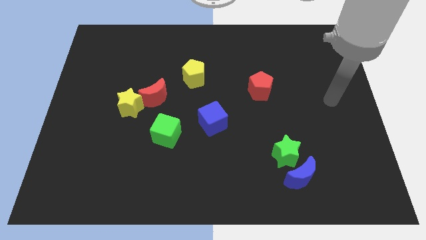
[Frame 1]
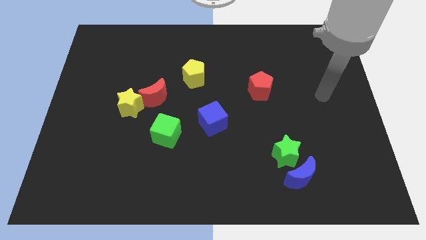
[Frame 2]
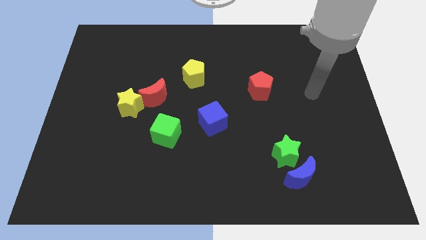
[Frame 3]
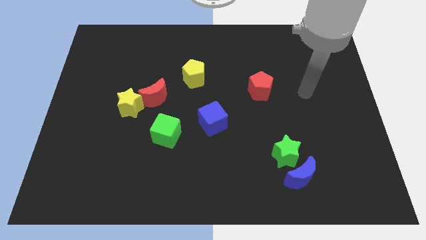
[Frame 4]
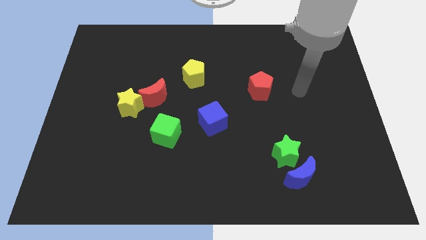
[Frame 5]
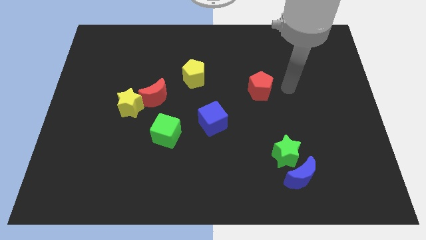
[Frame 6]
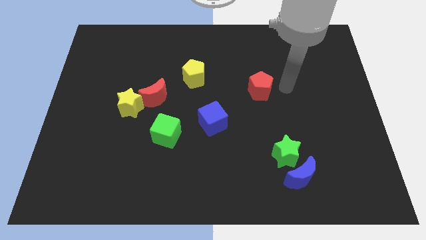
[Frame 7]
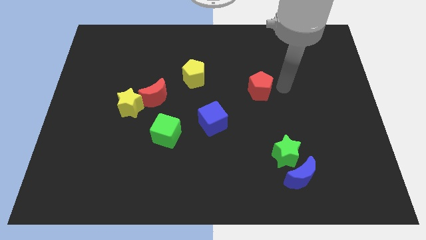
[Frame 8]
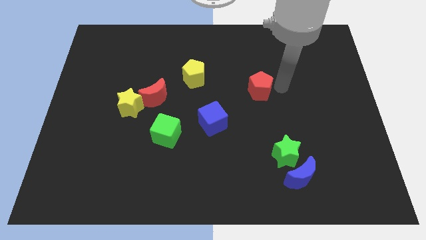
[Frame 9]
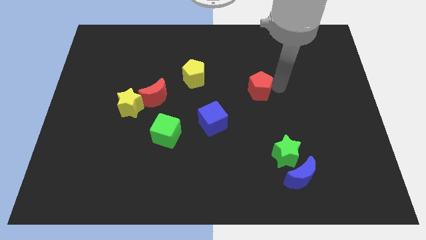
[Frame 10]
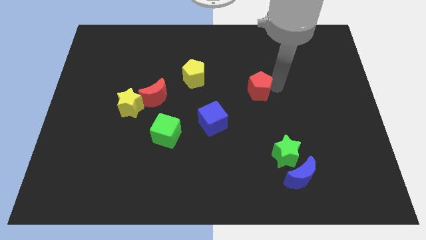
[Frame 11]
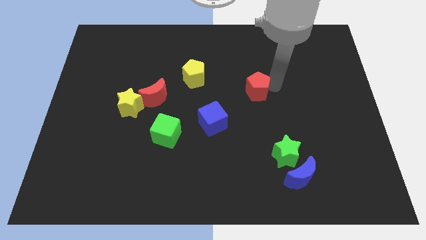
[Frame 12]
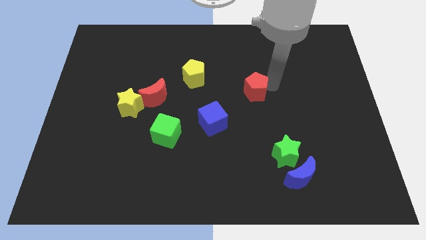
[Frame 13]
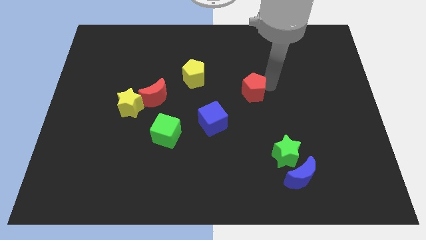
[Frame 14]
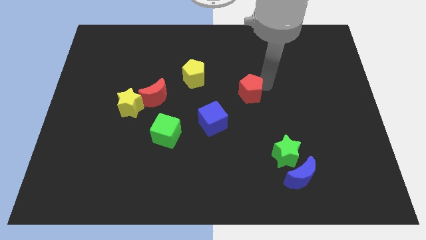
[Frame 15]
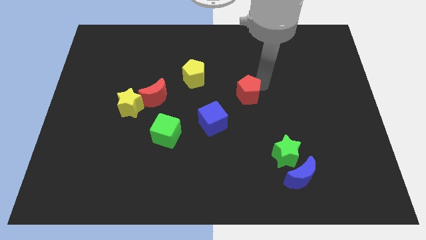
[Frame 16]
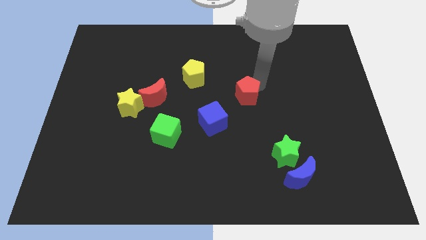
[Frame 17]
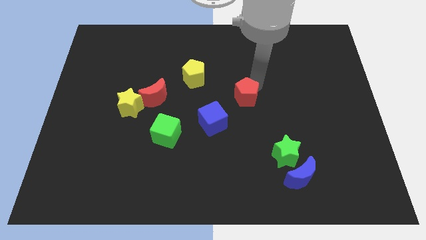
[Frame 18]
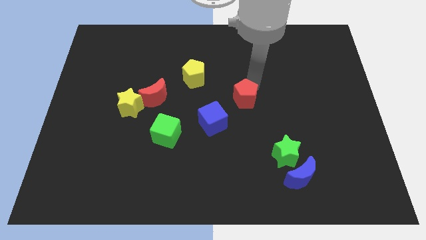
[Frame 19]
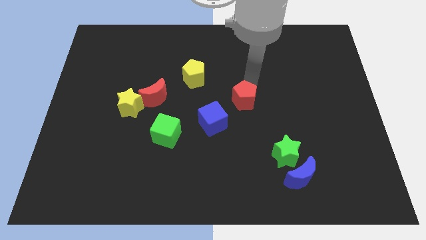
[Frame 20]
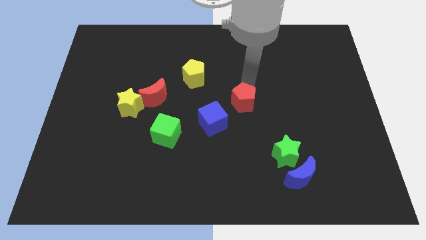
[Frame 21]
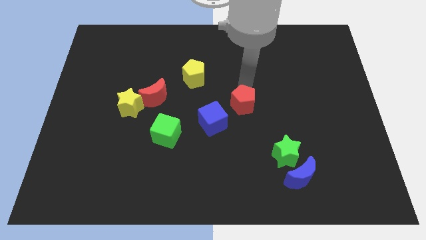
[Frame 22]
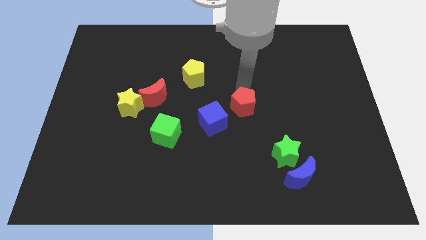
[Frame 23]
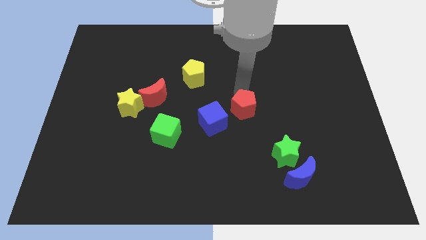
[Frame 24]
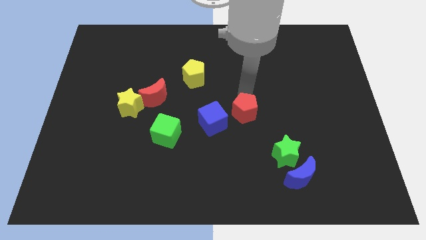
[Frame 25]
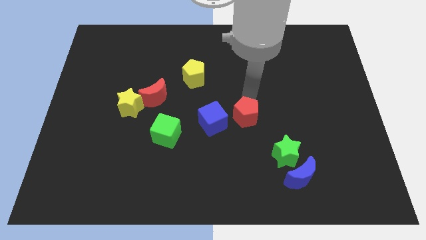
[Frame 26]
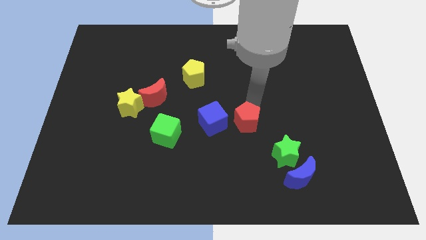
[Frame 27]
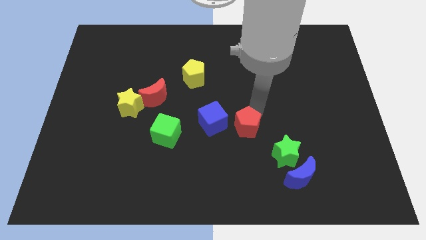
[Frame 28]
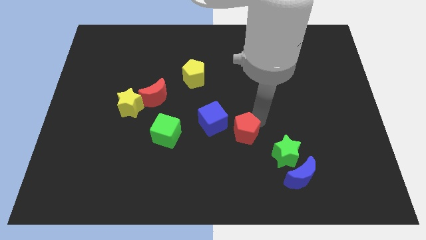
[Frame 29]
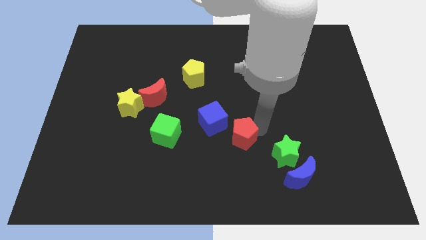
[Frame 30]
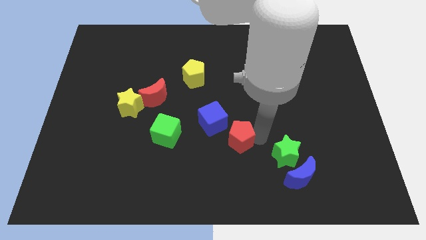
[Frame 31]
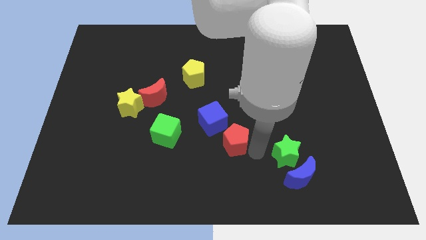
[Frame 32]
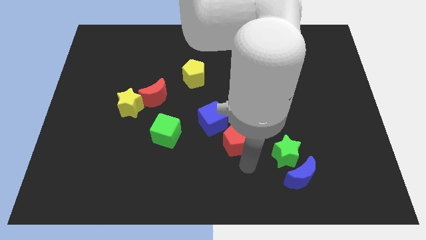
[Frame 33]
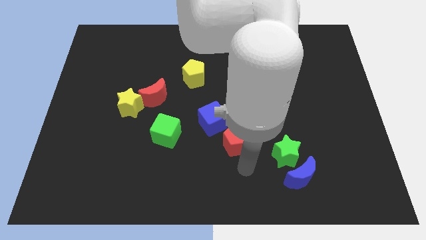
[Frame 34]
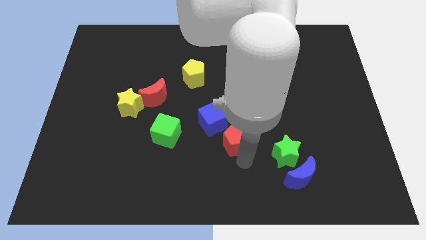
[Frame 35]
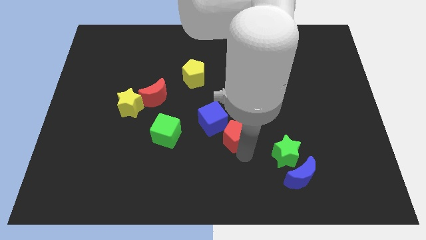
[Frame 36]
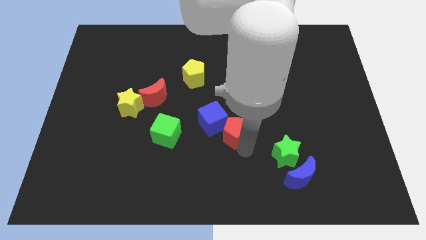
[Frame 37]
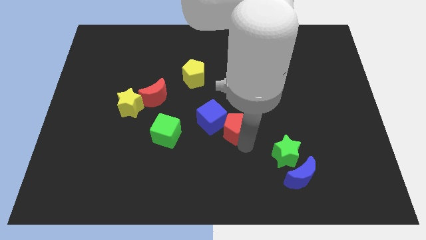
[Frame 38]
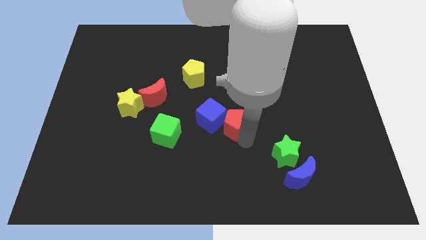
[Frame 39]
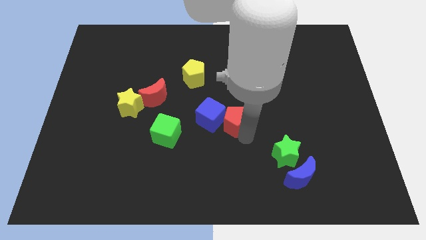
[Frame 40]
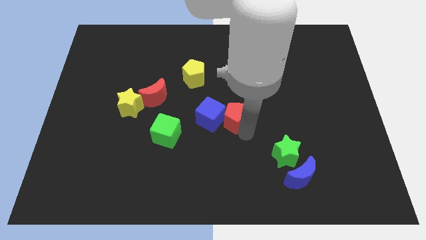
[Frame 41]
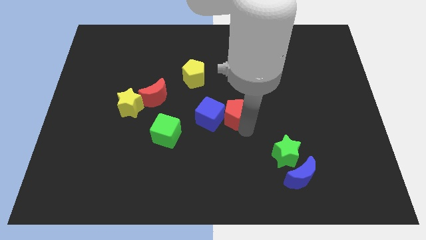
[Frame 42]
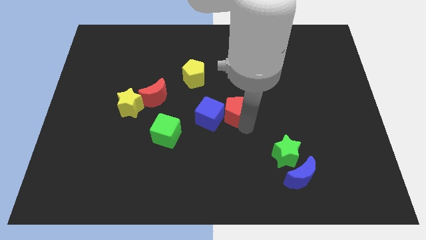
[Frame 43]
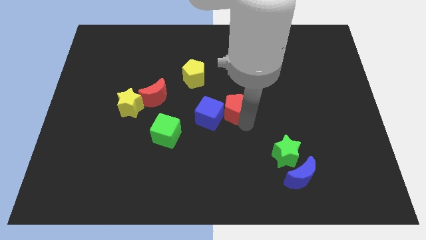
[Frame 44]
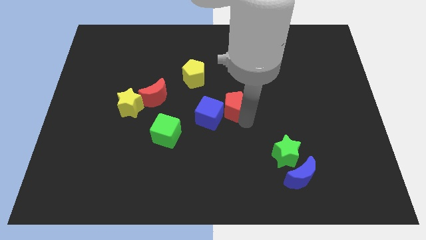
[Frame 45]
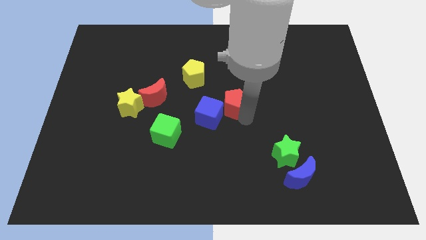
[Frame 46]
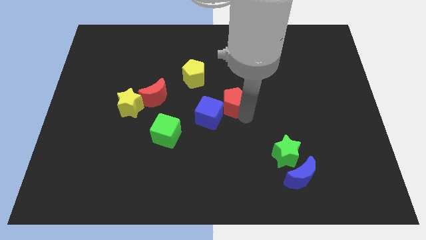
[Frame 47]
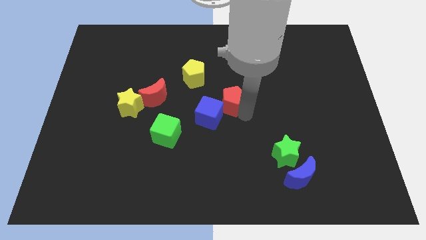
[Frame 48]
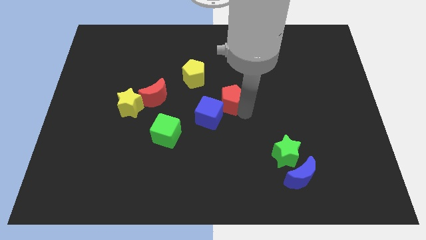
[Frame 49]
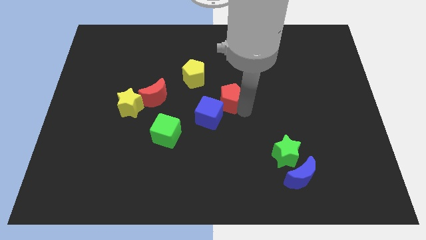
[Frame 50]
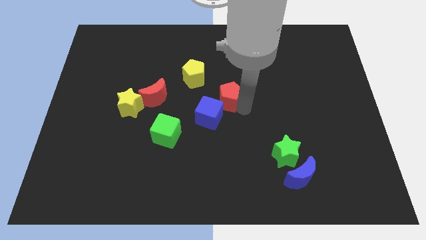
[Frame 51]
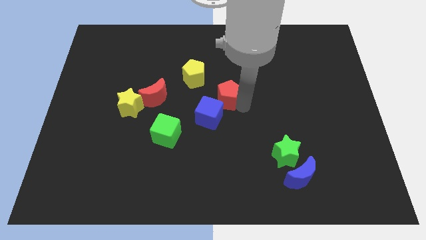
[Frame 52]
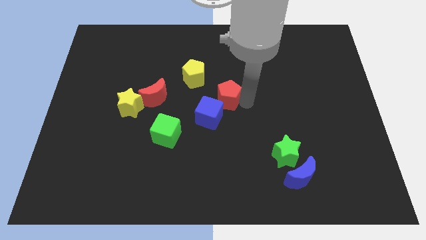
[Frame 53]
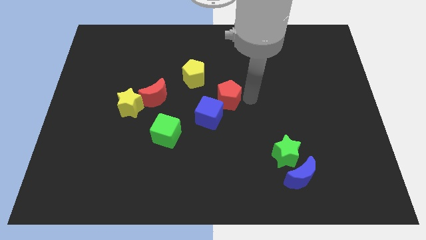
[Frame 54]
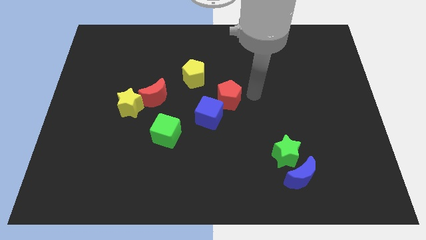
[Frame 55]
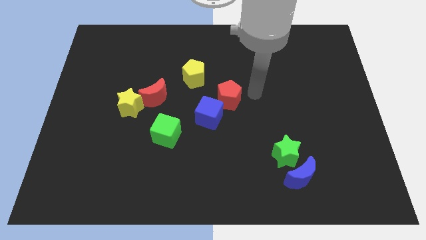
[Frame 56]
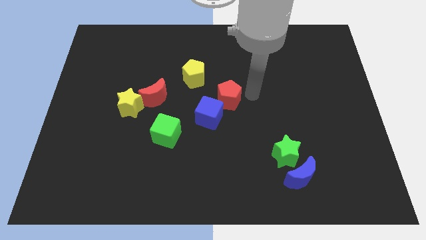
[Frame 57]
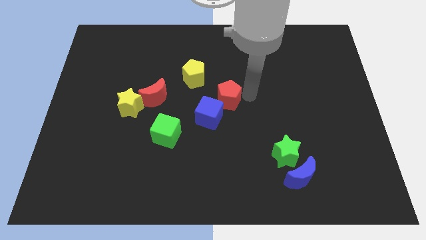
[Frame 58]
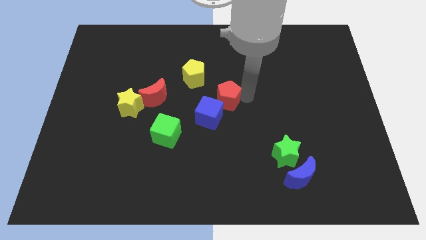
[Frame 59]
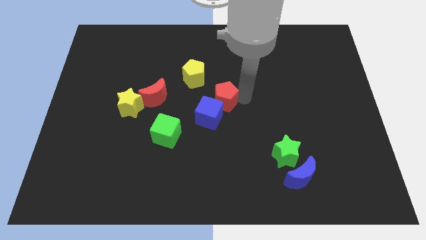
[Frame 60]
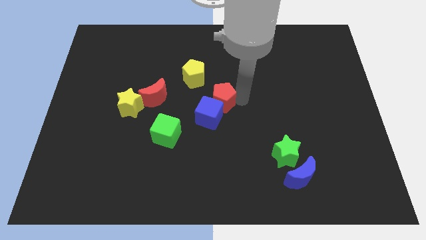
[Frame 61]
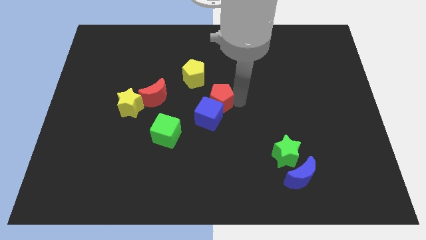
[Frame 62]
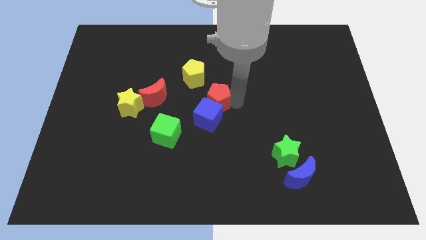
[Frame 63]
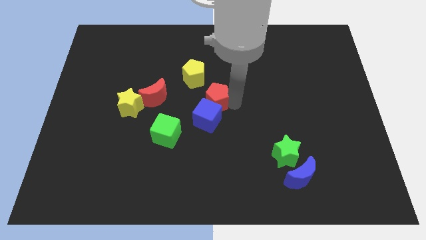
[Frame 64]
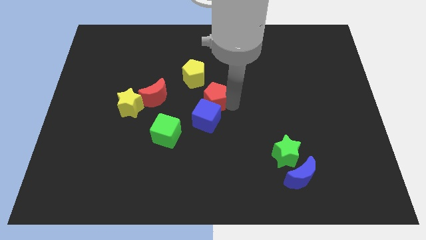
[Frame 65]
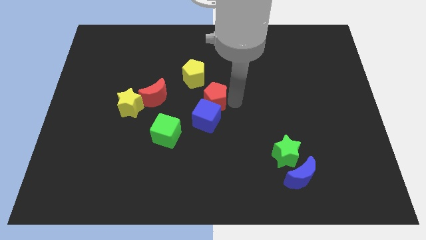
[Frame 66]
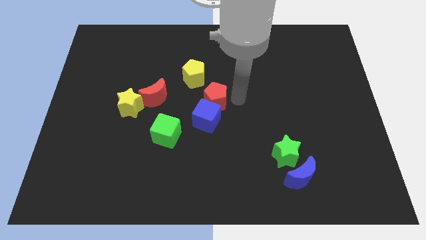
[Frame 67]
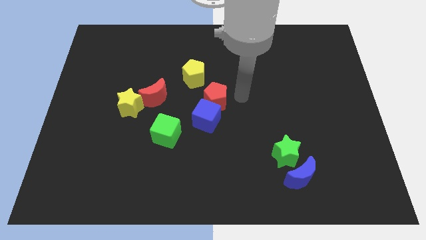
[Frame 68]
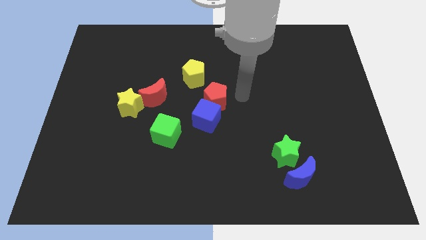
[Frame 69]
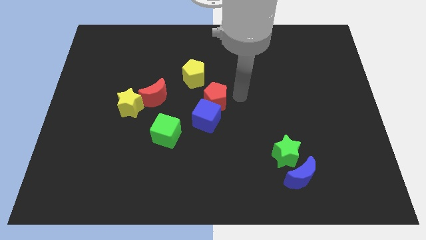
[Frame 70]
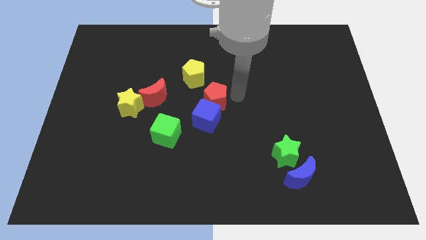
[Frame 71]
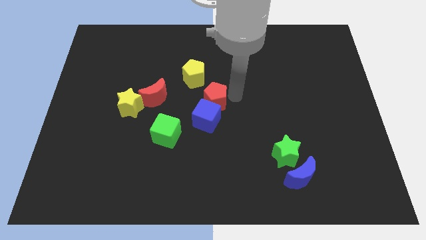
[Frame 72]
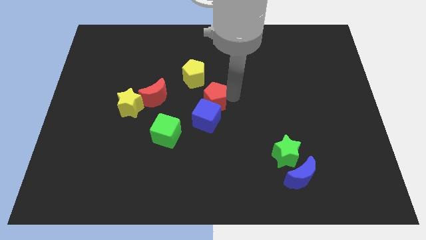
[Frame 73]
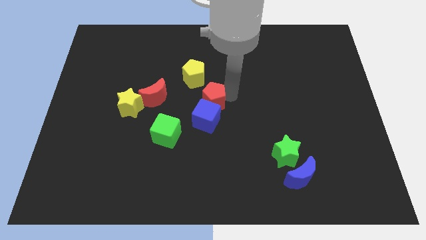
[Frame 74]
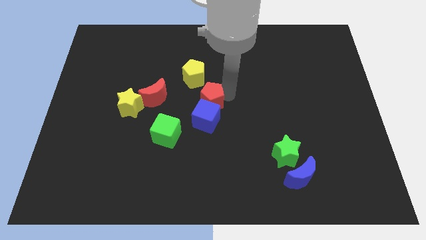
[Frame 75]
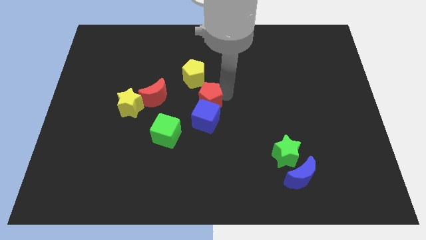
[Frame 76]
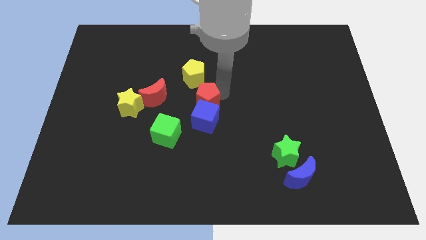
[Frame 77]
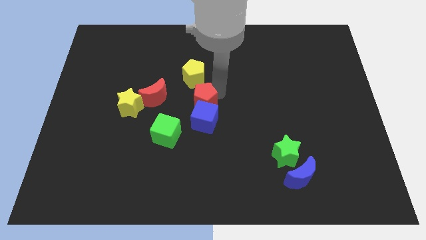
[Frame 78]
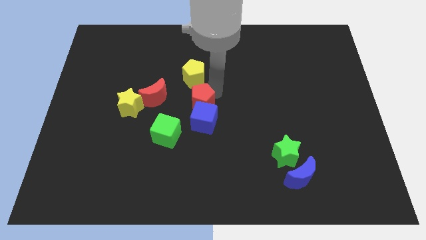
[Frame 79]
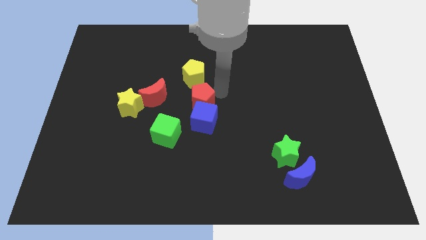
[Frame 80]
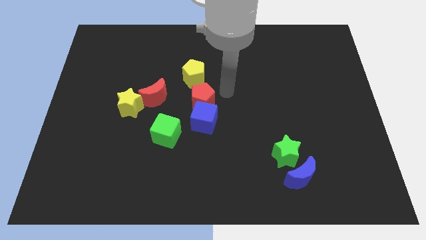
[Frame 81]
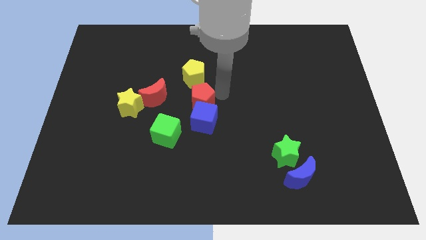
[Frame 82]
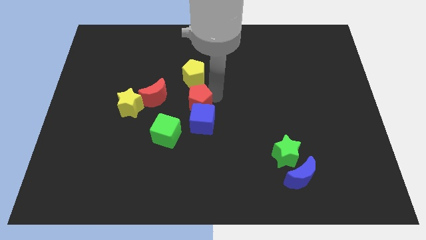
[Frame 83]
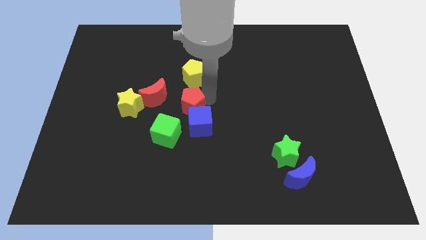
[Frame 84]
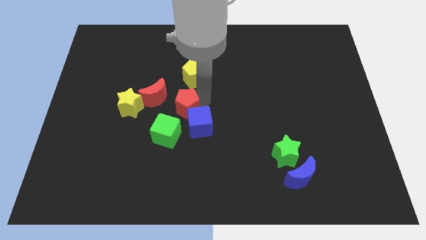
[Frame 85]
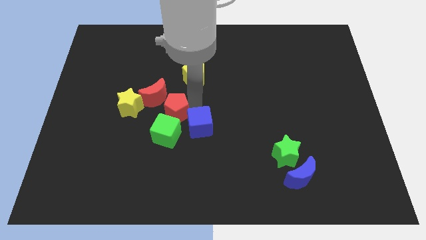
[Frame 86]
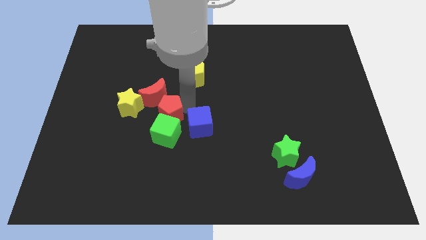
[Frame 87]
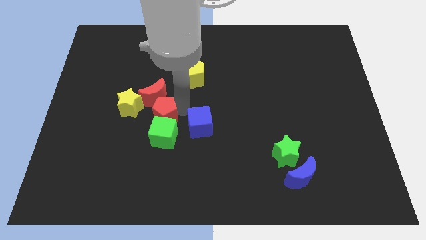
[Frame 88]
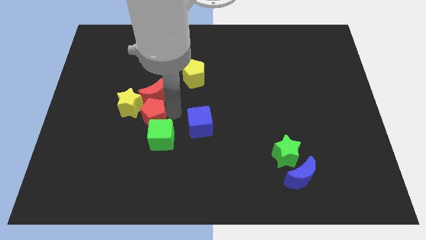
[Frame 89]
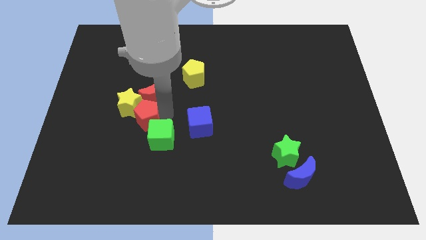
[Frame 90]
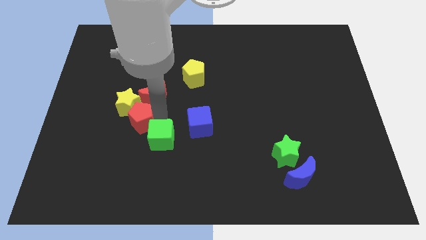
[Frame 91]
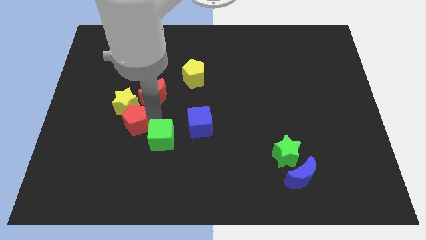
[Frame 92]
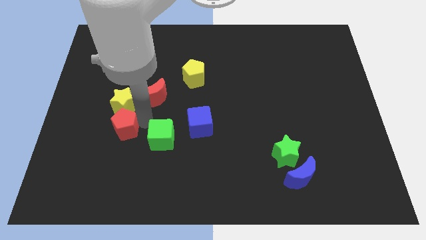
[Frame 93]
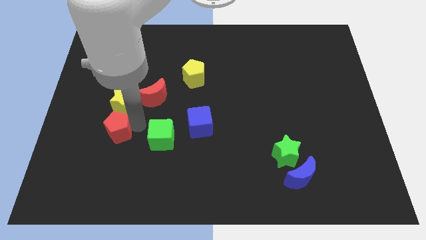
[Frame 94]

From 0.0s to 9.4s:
push the red pentagon to the bottom left of the yellow star
